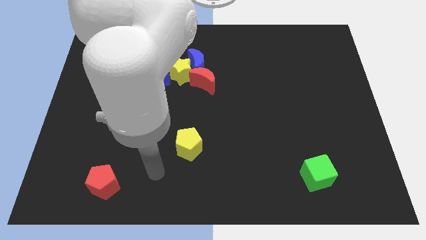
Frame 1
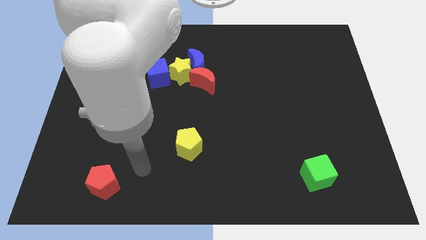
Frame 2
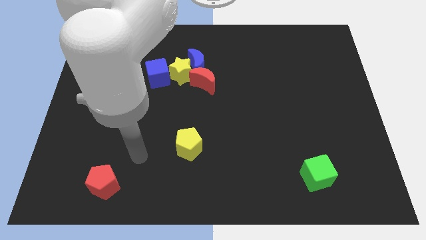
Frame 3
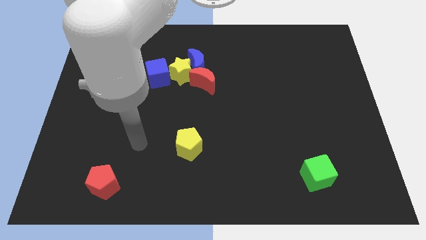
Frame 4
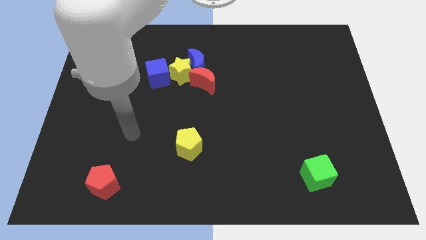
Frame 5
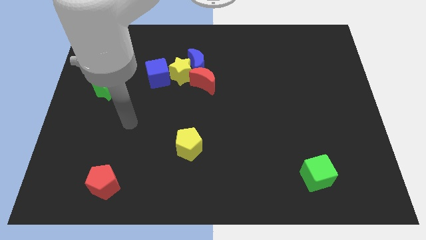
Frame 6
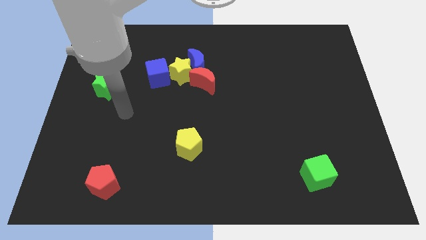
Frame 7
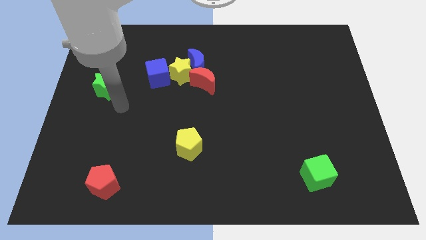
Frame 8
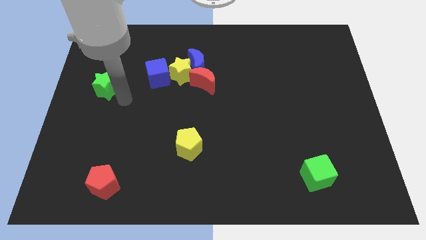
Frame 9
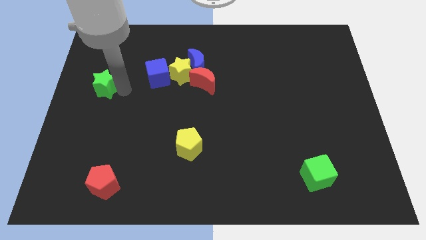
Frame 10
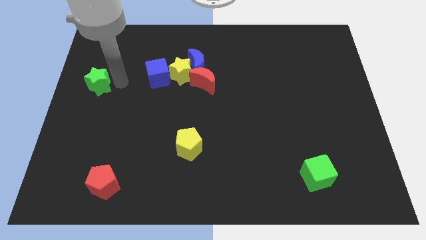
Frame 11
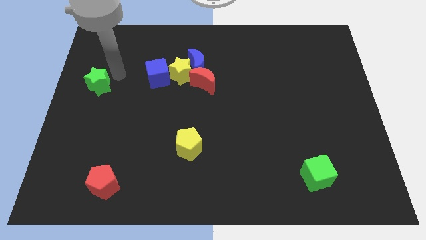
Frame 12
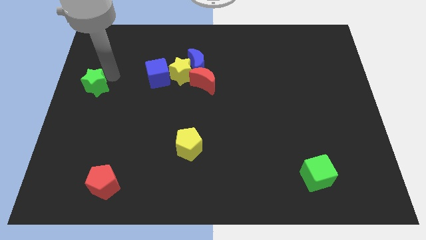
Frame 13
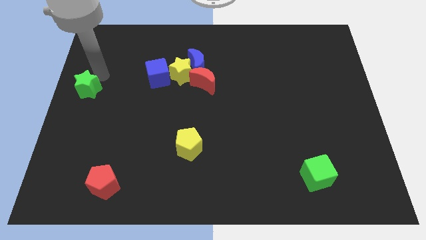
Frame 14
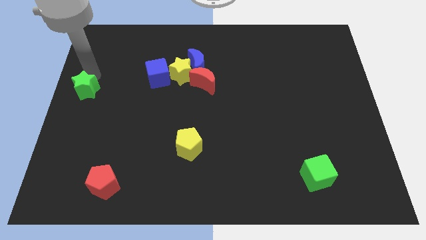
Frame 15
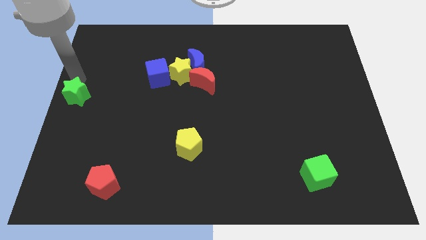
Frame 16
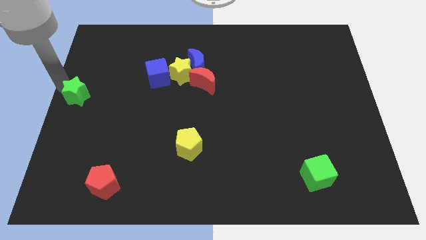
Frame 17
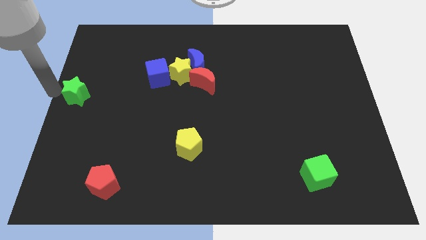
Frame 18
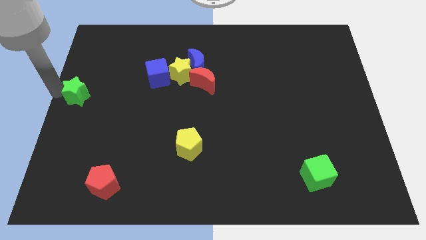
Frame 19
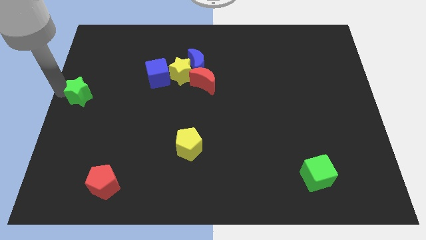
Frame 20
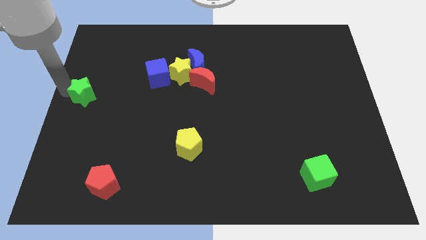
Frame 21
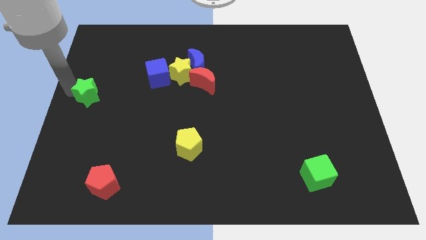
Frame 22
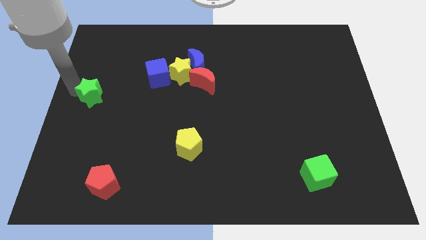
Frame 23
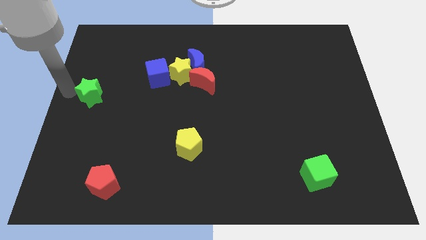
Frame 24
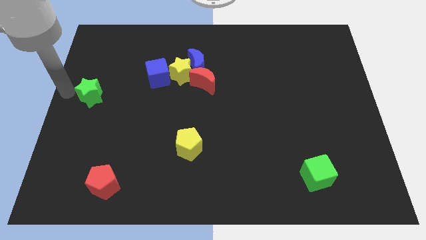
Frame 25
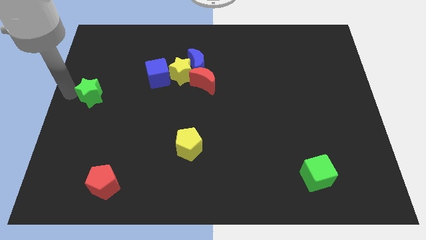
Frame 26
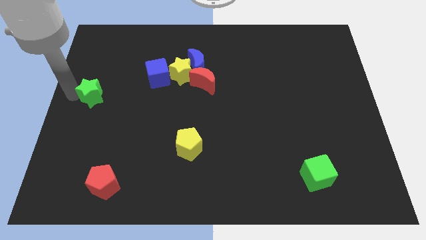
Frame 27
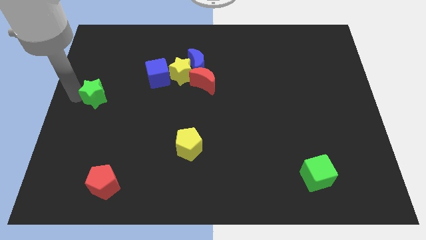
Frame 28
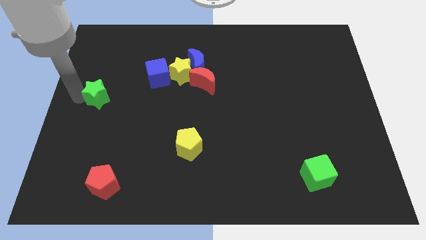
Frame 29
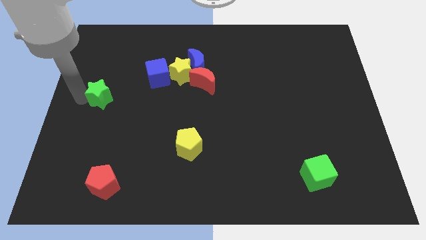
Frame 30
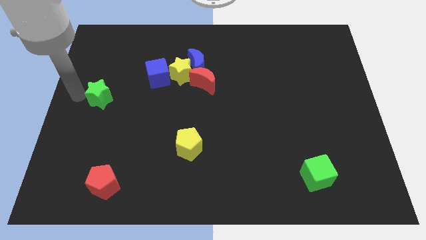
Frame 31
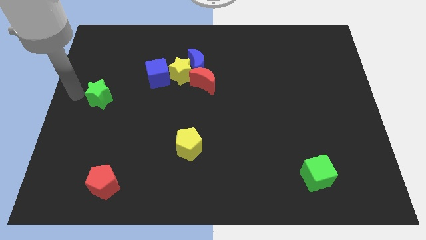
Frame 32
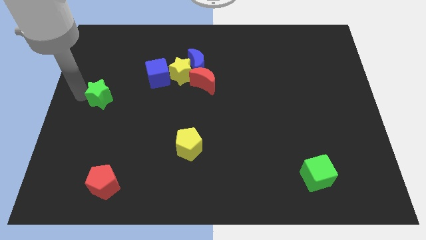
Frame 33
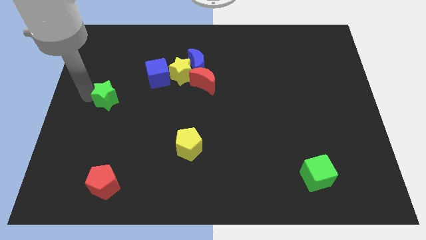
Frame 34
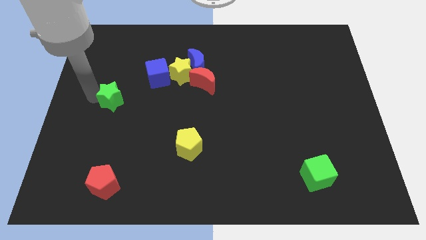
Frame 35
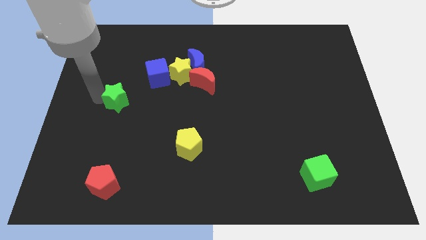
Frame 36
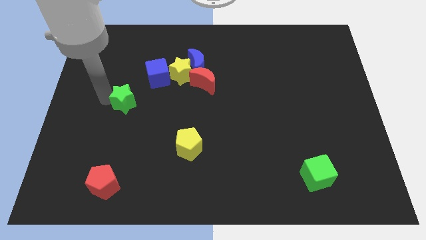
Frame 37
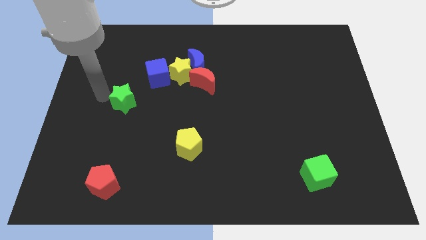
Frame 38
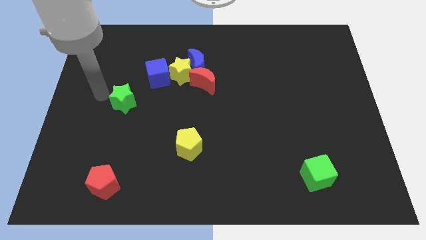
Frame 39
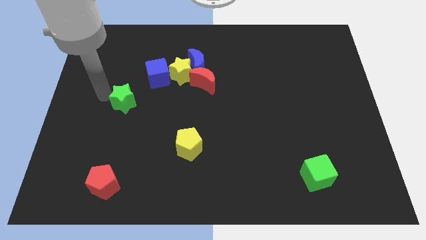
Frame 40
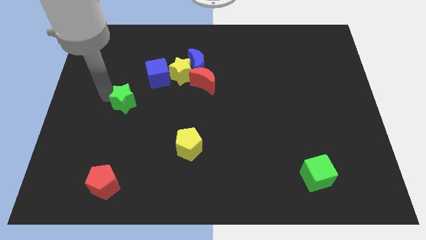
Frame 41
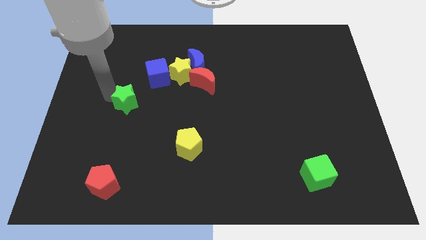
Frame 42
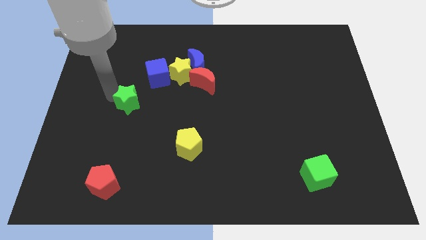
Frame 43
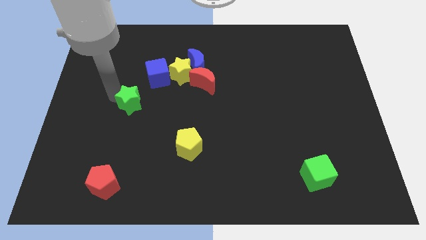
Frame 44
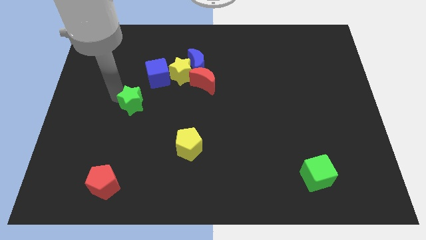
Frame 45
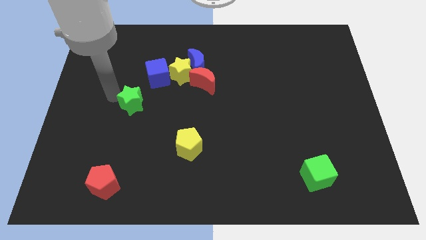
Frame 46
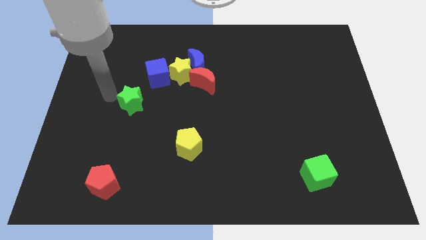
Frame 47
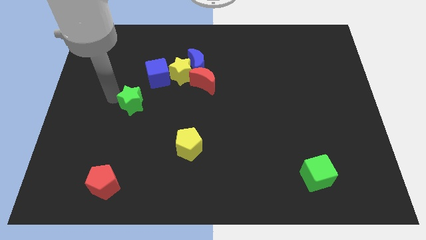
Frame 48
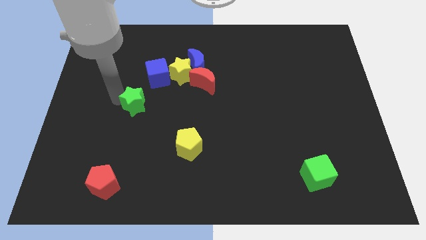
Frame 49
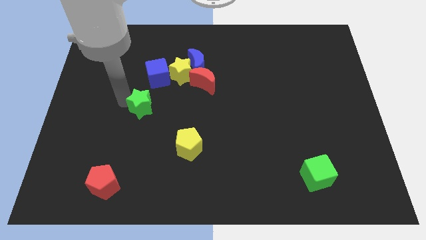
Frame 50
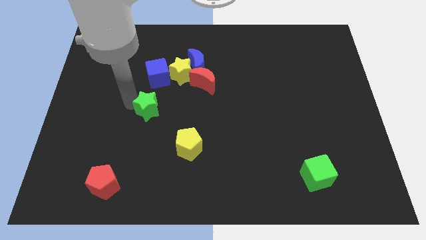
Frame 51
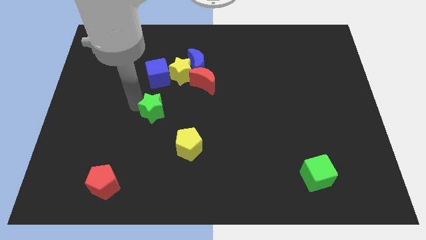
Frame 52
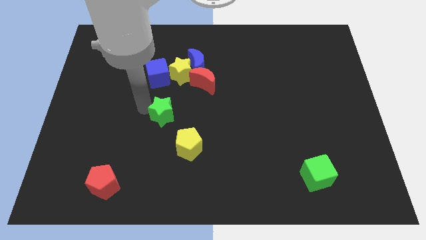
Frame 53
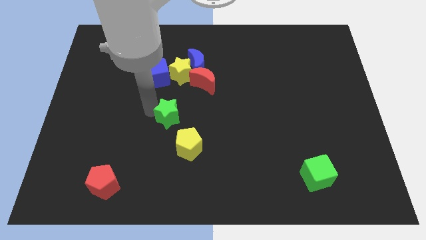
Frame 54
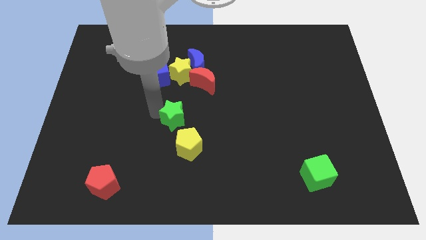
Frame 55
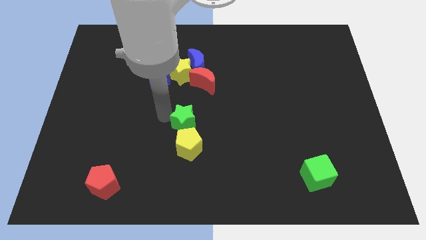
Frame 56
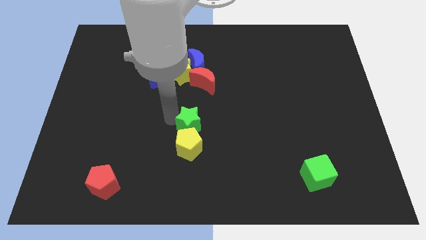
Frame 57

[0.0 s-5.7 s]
put the green star to the top right of the yellow pentagon

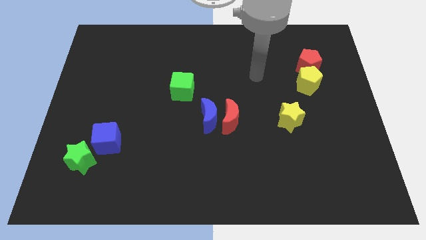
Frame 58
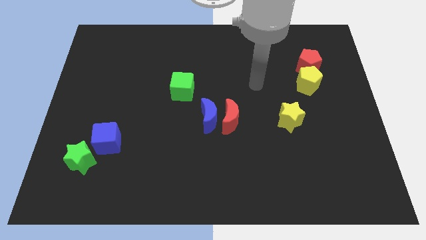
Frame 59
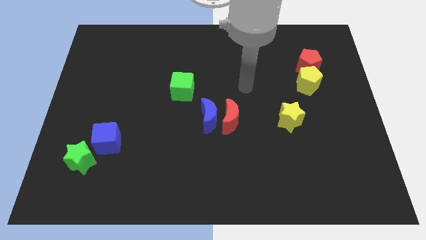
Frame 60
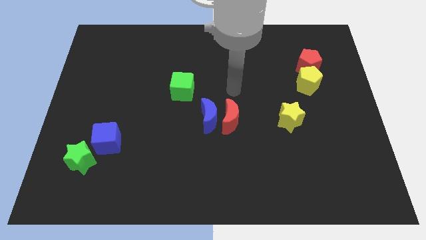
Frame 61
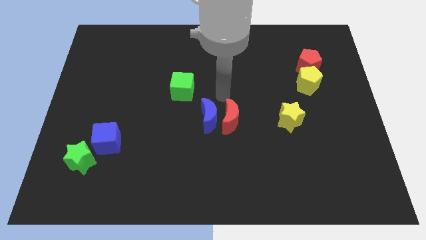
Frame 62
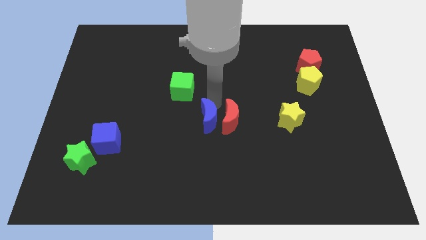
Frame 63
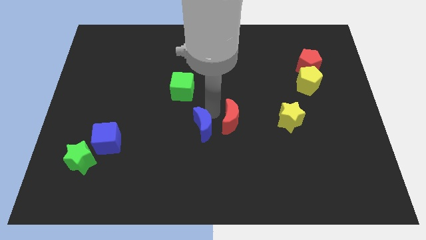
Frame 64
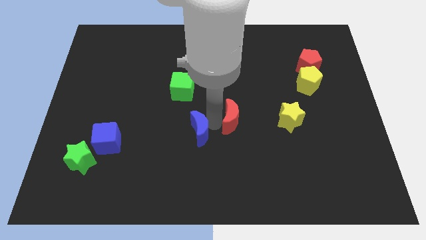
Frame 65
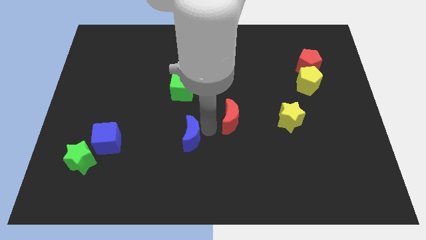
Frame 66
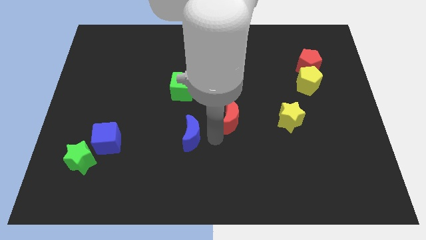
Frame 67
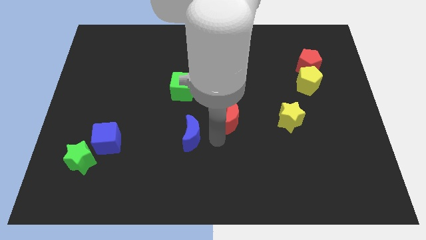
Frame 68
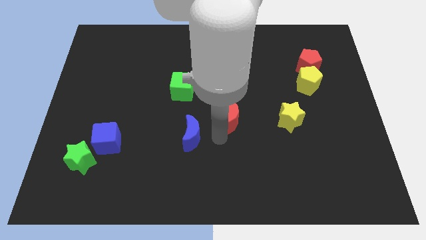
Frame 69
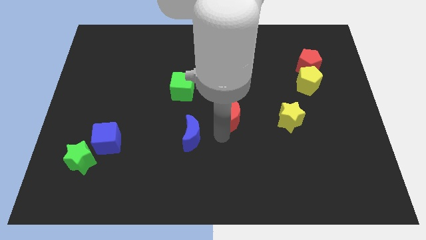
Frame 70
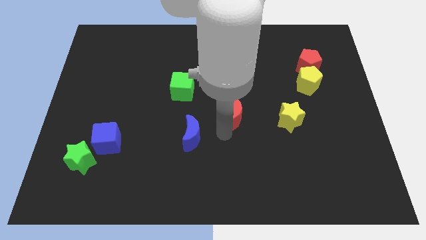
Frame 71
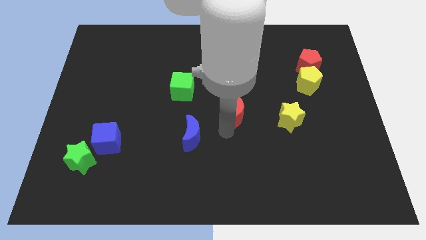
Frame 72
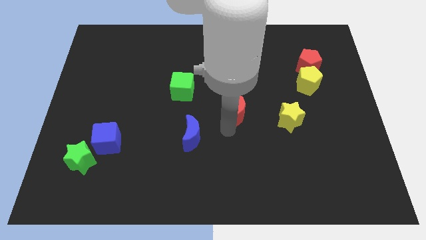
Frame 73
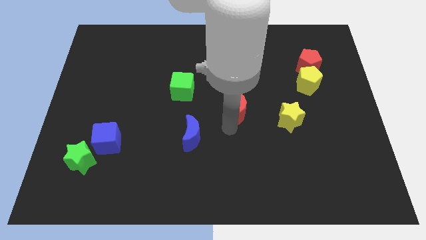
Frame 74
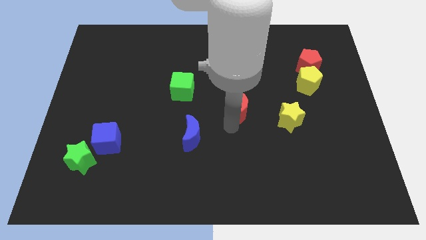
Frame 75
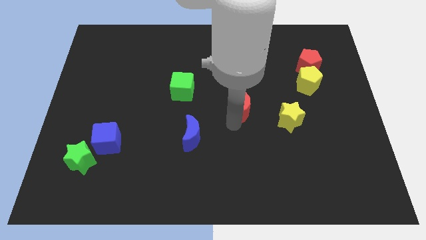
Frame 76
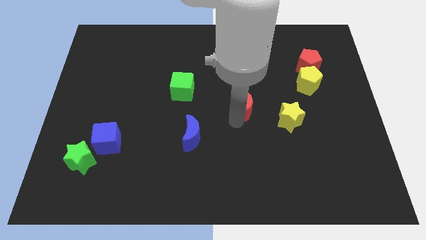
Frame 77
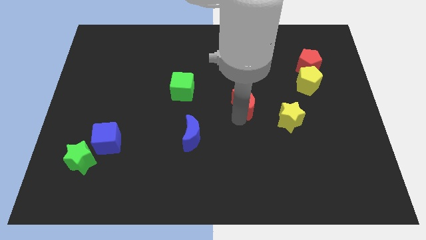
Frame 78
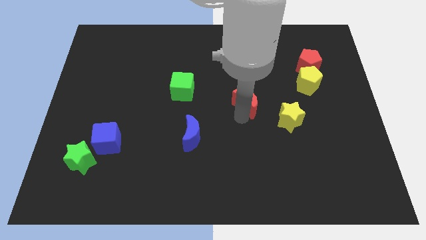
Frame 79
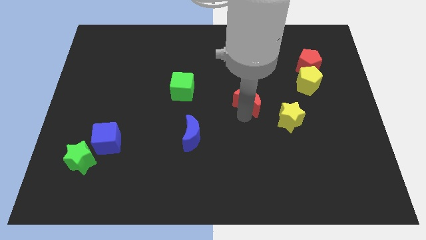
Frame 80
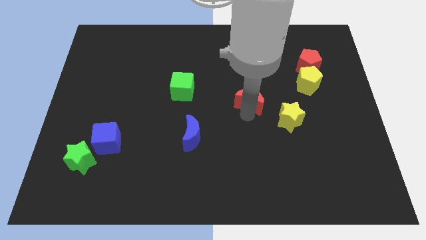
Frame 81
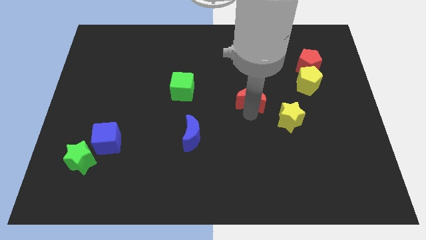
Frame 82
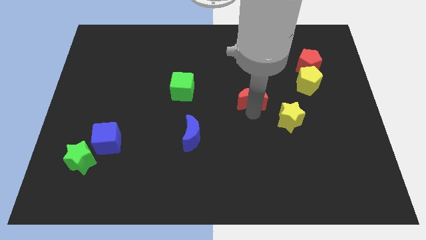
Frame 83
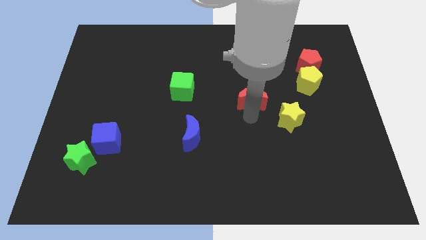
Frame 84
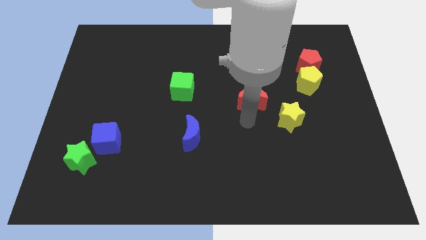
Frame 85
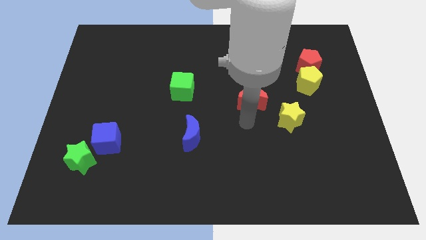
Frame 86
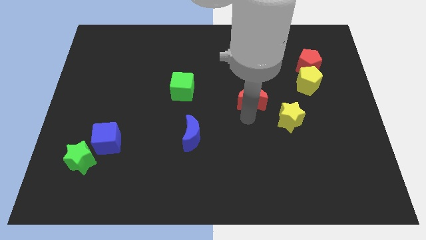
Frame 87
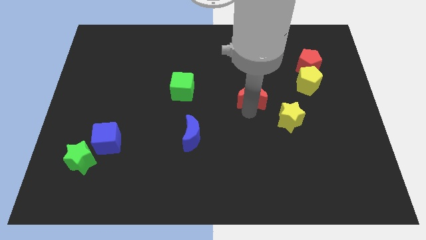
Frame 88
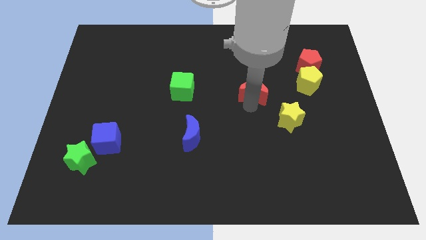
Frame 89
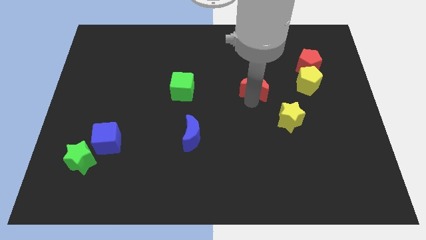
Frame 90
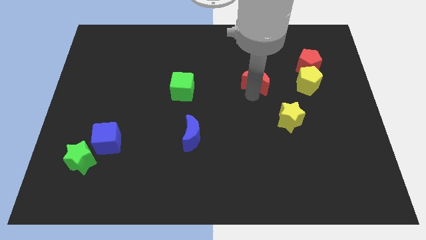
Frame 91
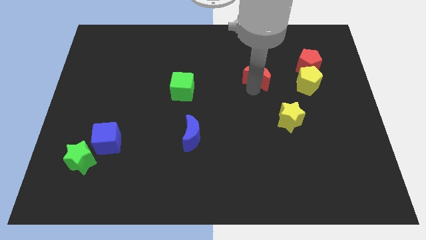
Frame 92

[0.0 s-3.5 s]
push the red moon just left of the red pentagon
